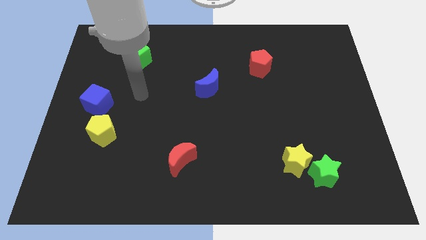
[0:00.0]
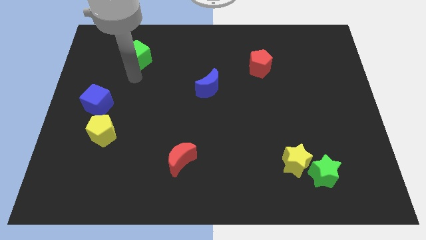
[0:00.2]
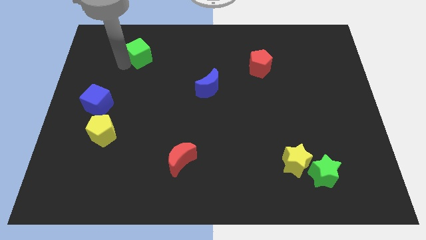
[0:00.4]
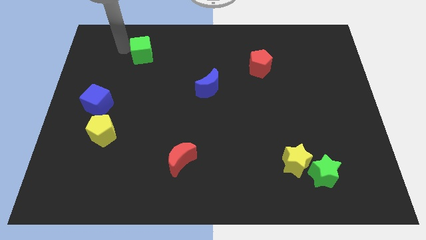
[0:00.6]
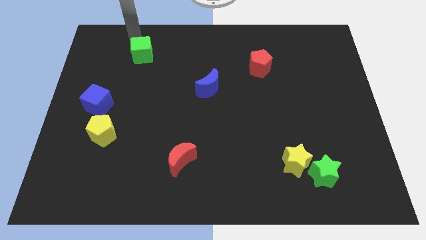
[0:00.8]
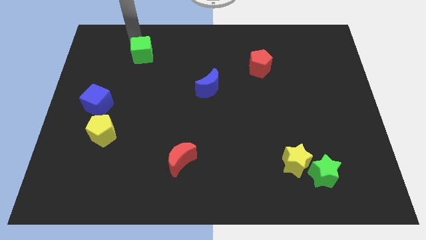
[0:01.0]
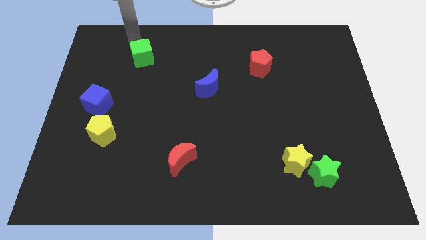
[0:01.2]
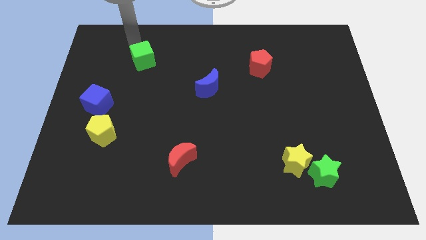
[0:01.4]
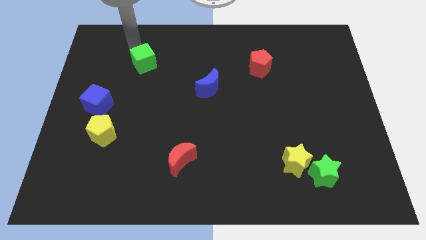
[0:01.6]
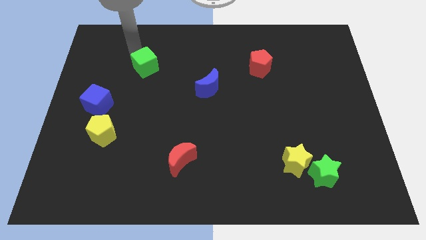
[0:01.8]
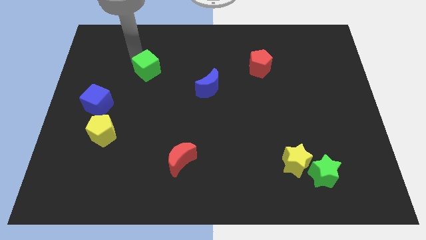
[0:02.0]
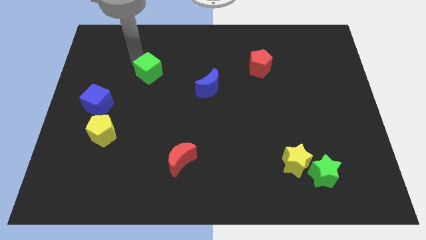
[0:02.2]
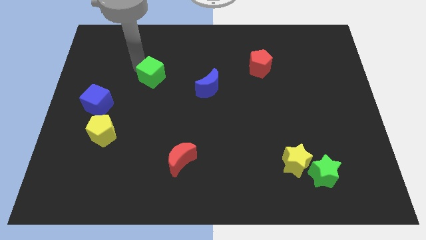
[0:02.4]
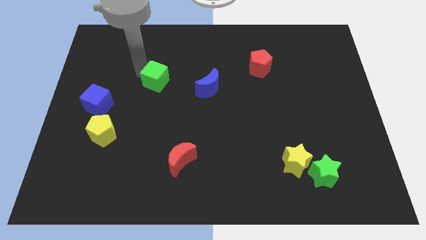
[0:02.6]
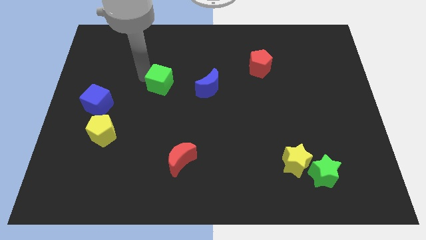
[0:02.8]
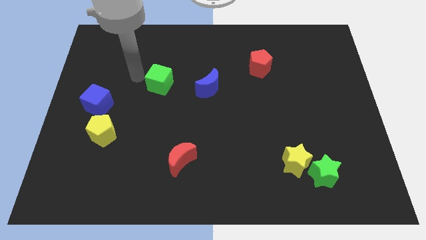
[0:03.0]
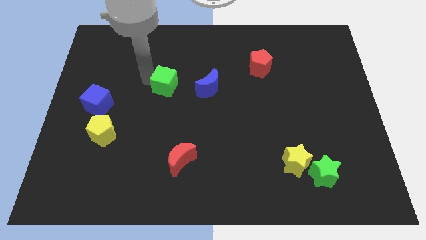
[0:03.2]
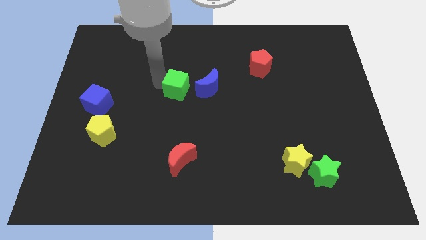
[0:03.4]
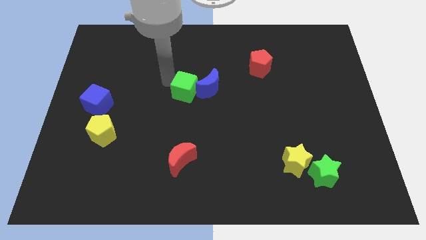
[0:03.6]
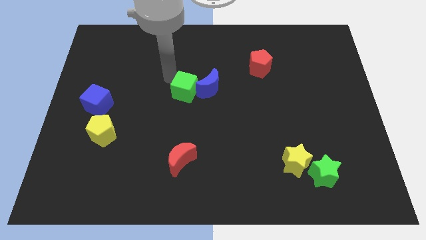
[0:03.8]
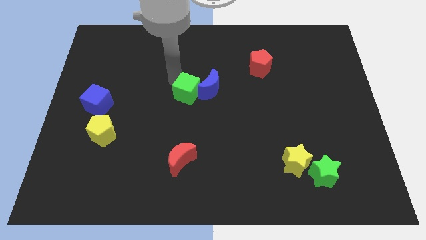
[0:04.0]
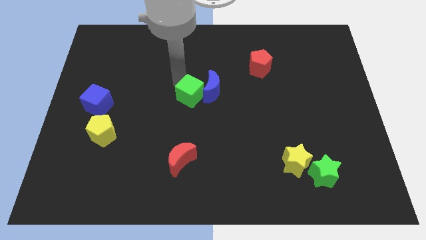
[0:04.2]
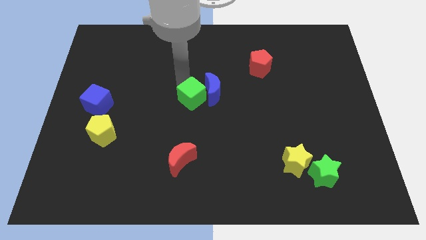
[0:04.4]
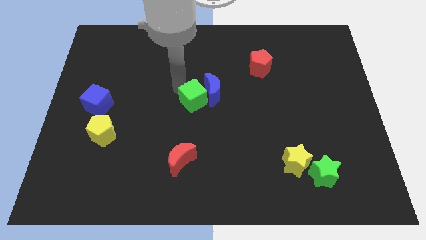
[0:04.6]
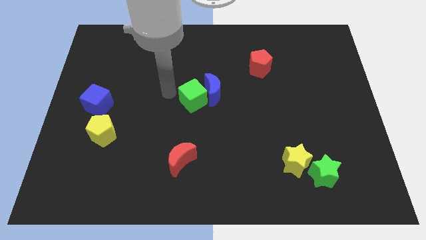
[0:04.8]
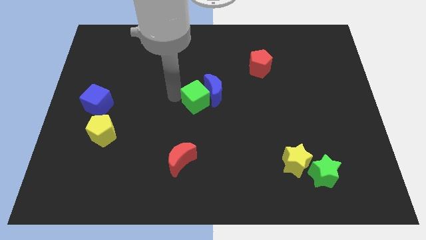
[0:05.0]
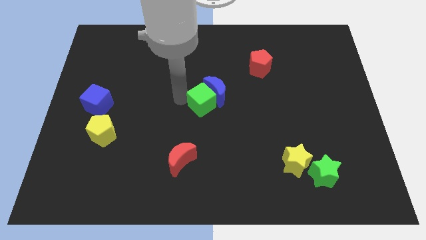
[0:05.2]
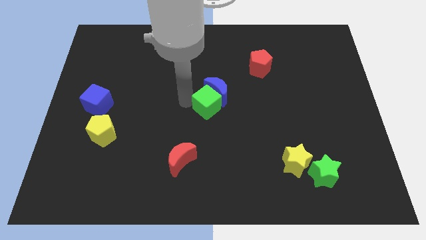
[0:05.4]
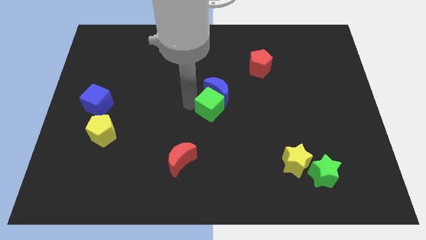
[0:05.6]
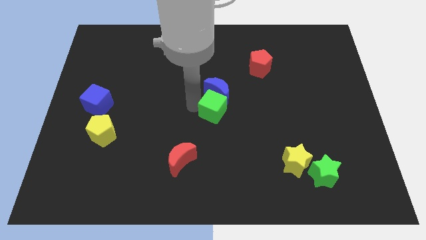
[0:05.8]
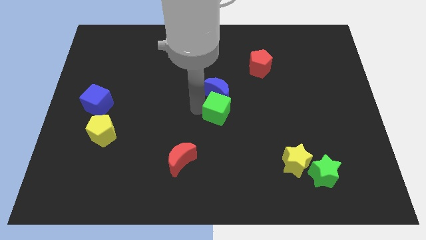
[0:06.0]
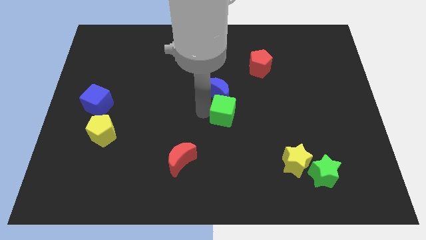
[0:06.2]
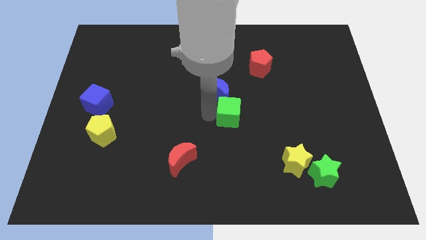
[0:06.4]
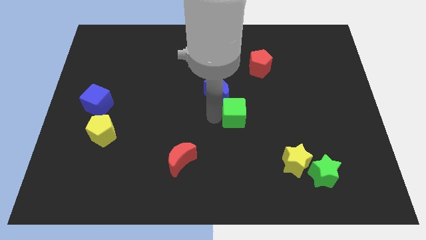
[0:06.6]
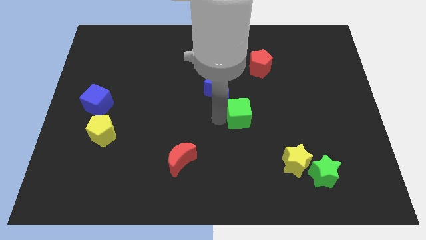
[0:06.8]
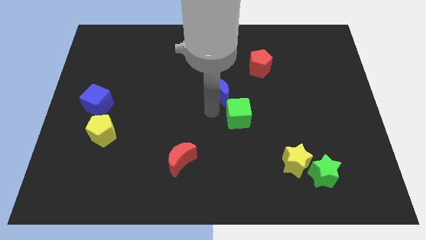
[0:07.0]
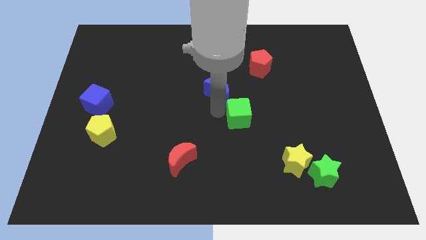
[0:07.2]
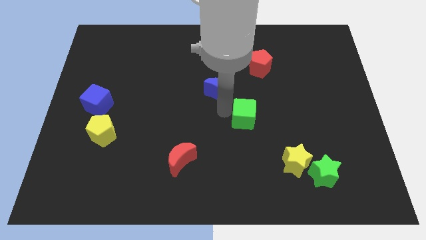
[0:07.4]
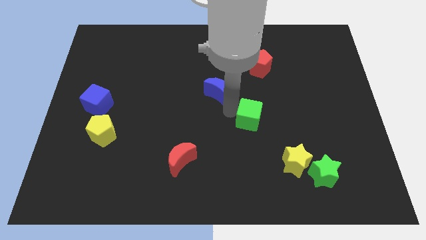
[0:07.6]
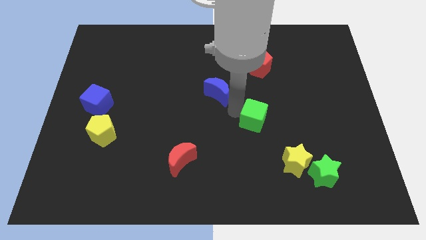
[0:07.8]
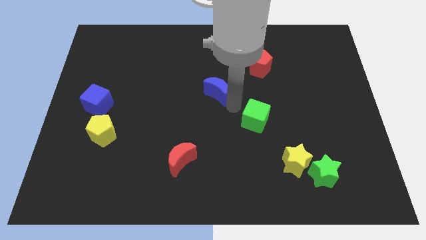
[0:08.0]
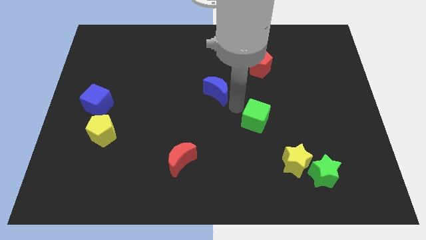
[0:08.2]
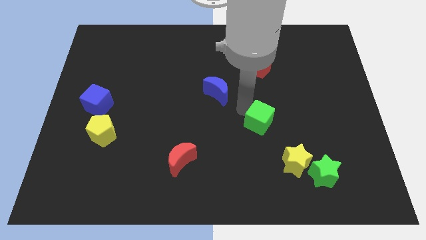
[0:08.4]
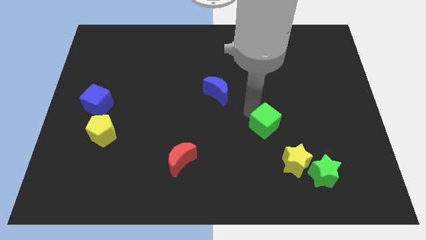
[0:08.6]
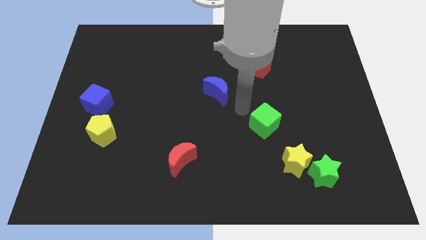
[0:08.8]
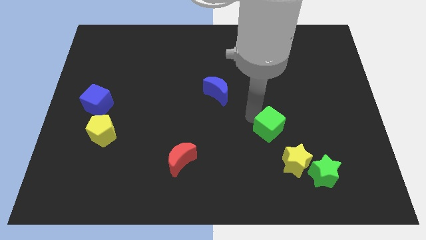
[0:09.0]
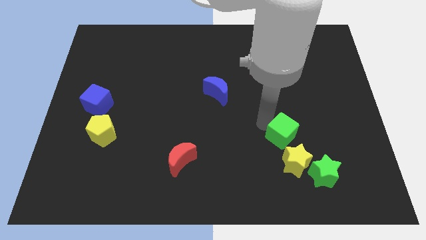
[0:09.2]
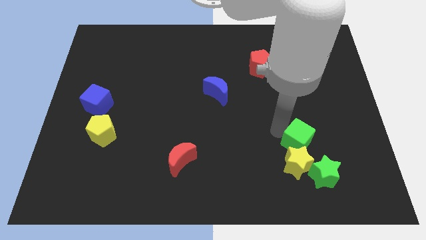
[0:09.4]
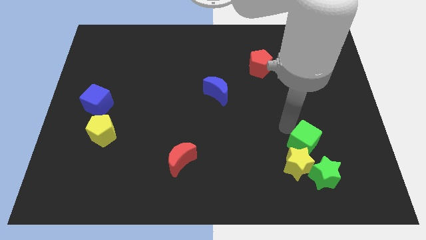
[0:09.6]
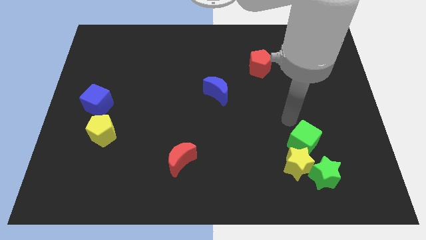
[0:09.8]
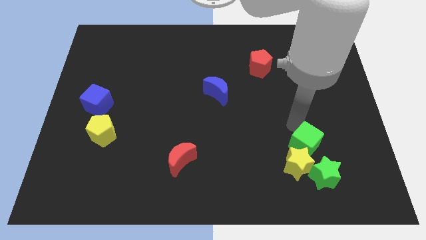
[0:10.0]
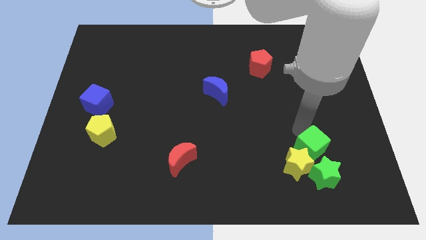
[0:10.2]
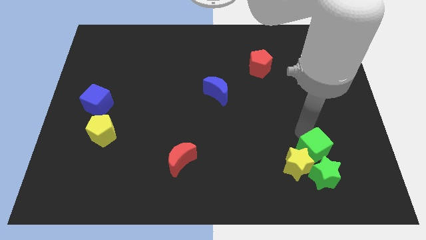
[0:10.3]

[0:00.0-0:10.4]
put the green cube close to the green star

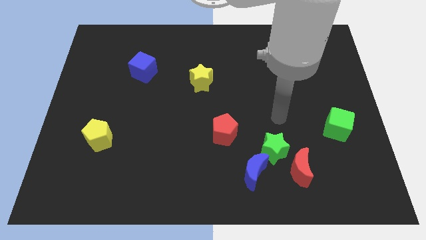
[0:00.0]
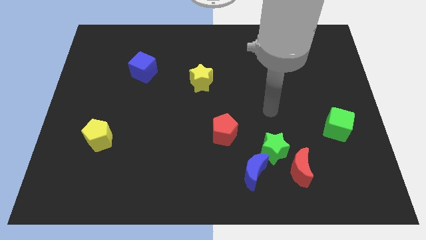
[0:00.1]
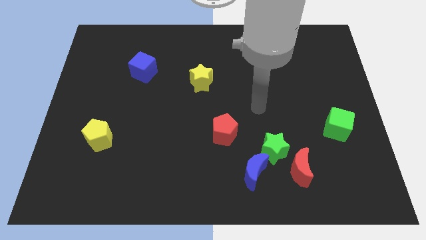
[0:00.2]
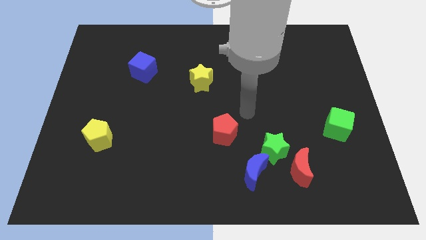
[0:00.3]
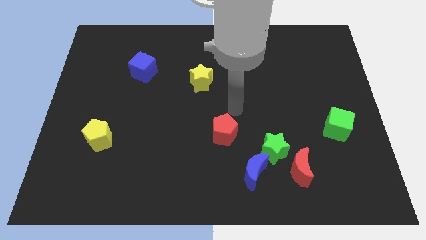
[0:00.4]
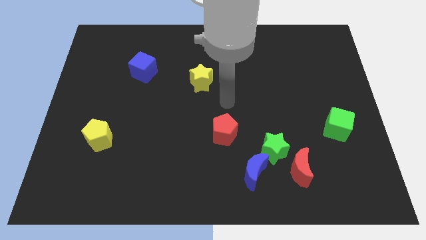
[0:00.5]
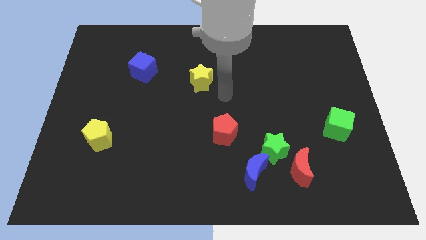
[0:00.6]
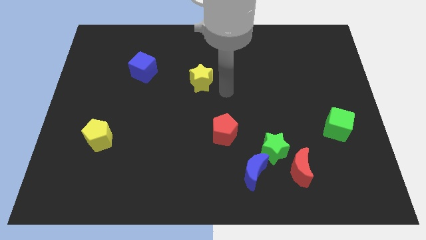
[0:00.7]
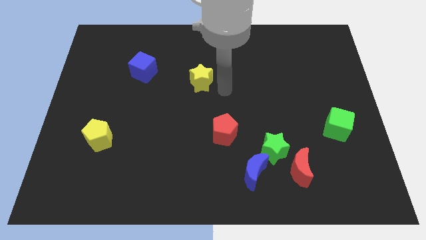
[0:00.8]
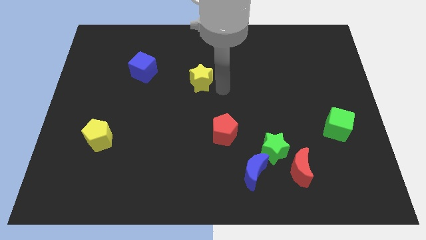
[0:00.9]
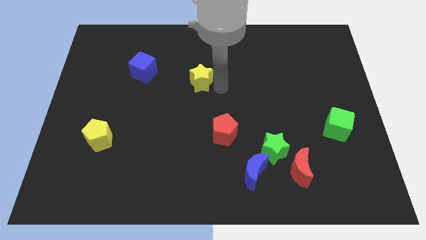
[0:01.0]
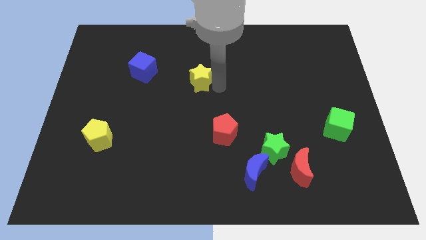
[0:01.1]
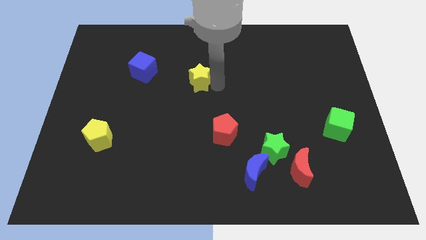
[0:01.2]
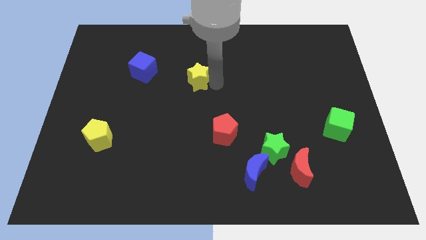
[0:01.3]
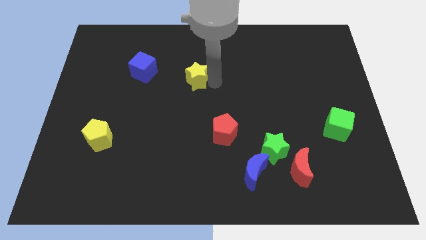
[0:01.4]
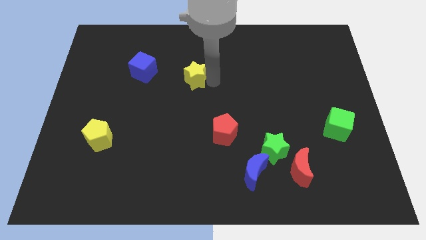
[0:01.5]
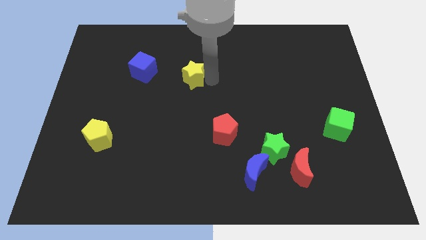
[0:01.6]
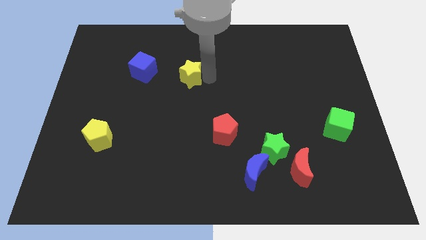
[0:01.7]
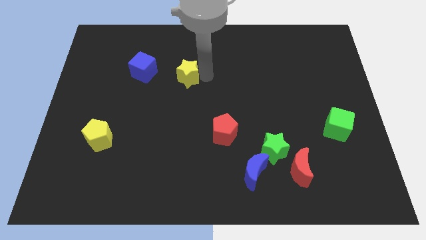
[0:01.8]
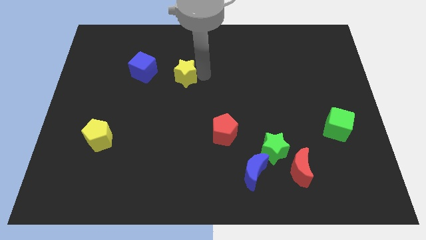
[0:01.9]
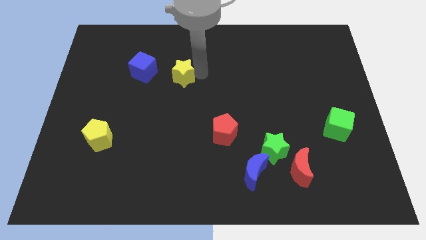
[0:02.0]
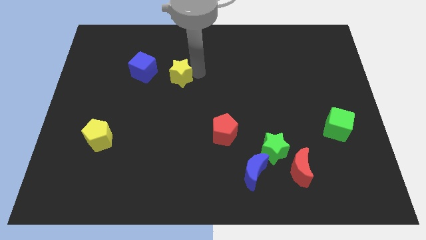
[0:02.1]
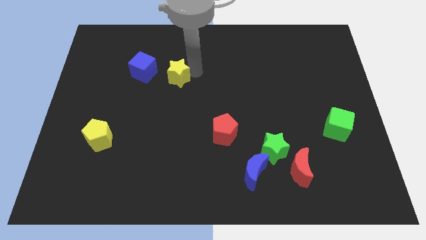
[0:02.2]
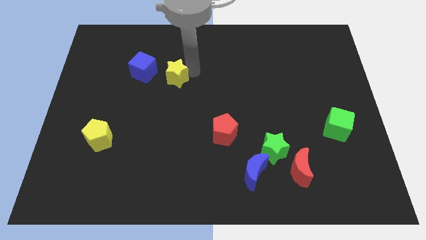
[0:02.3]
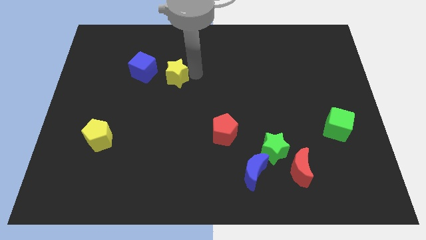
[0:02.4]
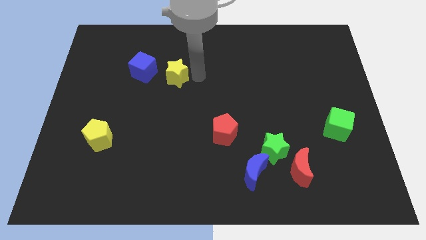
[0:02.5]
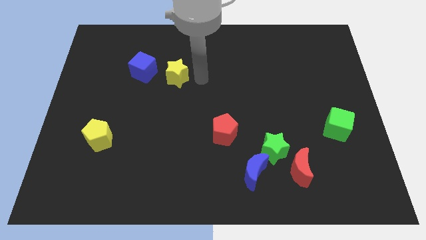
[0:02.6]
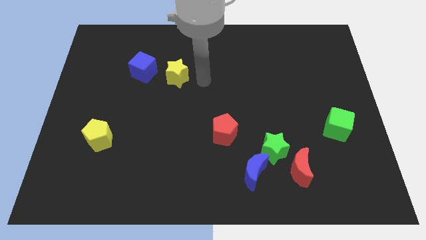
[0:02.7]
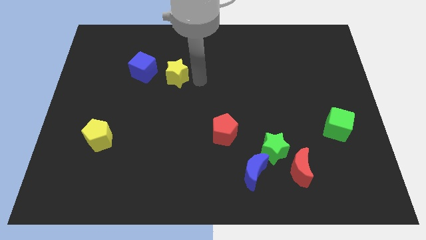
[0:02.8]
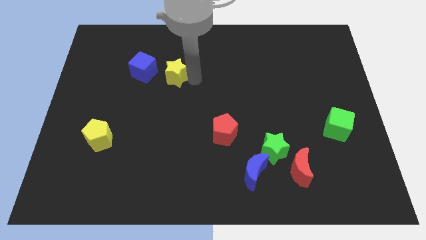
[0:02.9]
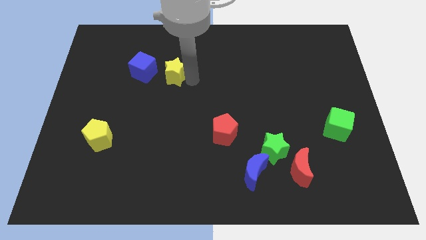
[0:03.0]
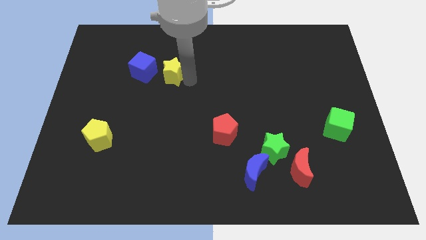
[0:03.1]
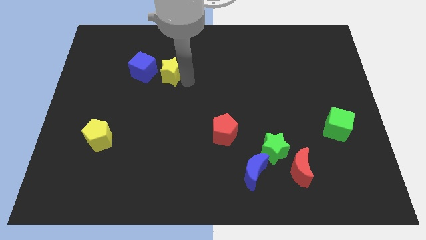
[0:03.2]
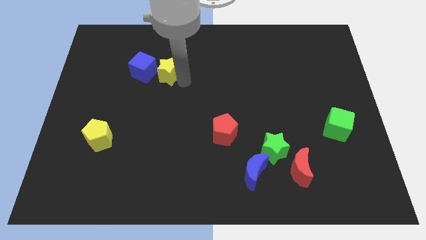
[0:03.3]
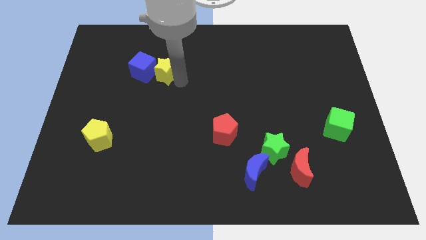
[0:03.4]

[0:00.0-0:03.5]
move the yellow star next to the blue cube
